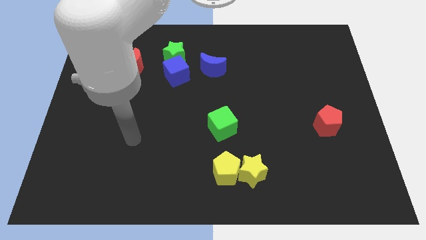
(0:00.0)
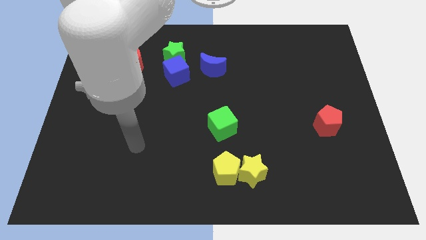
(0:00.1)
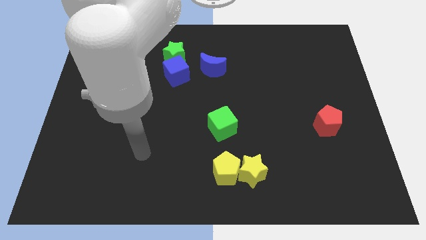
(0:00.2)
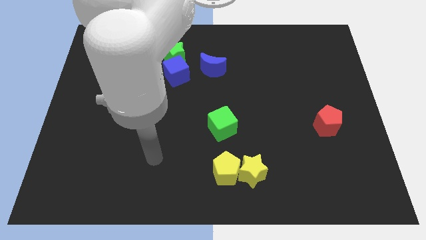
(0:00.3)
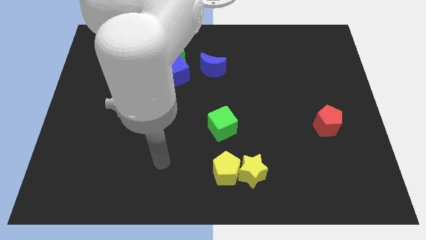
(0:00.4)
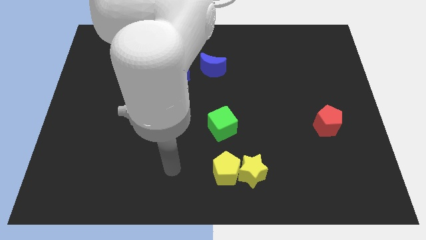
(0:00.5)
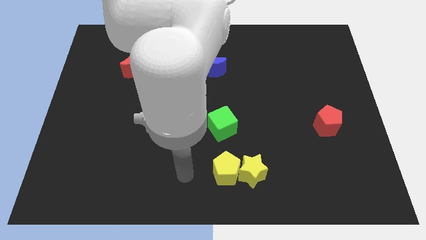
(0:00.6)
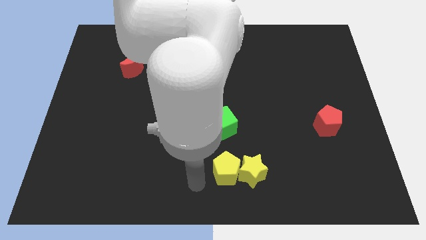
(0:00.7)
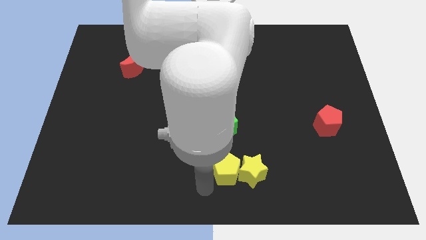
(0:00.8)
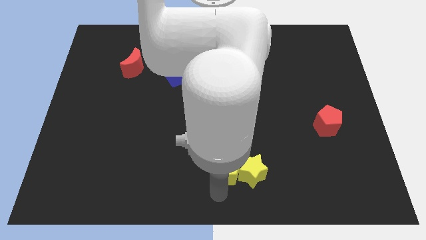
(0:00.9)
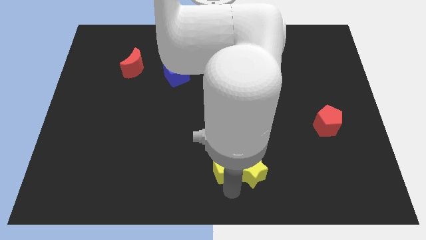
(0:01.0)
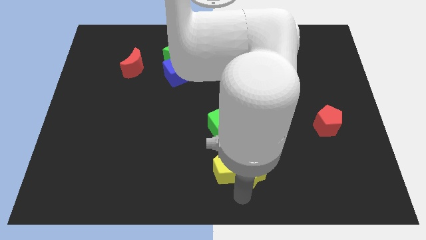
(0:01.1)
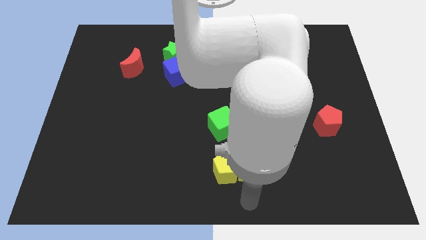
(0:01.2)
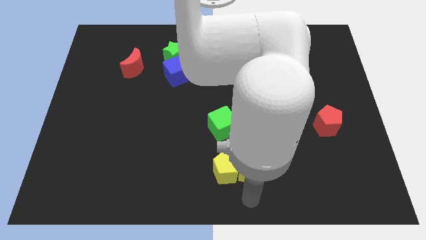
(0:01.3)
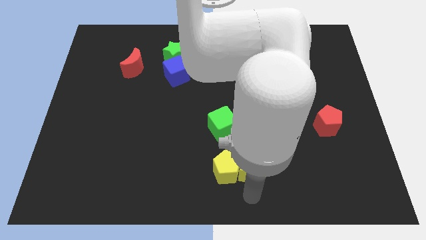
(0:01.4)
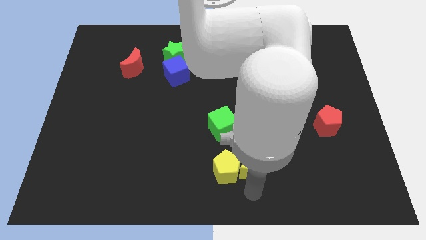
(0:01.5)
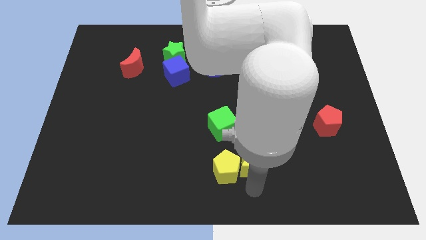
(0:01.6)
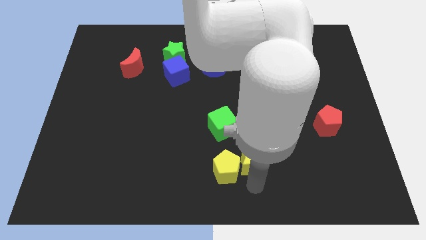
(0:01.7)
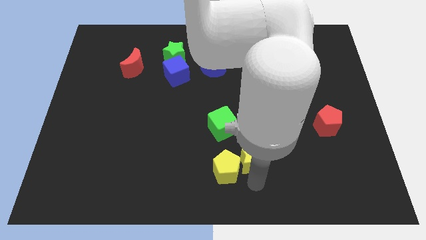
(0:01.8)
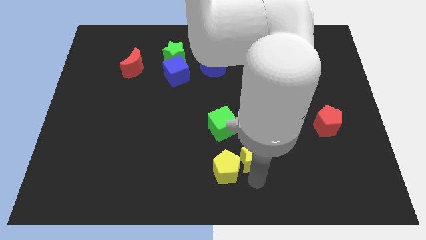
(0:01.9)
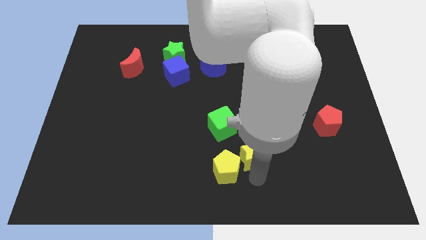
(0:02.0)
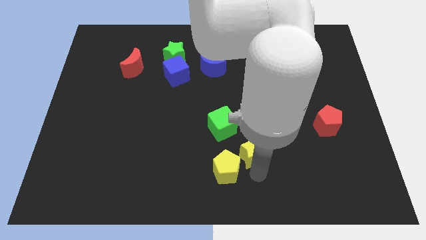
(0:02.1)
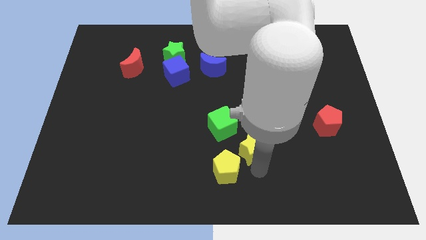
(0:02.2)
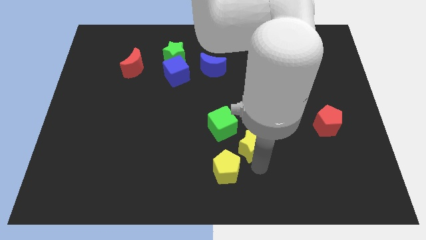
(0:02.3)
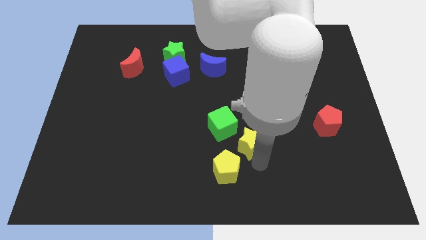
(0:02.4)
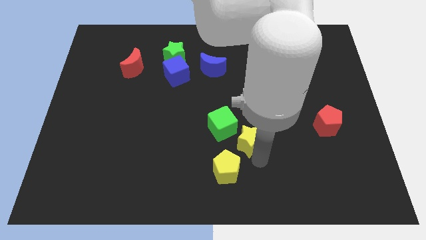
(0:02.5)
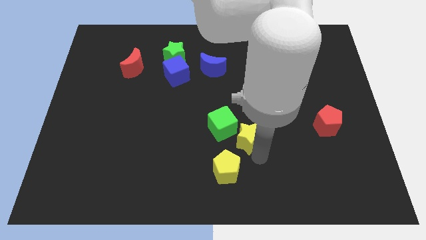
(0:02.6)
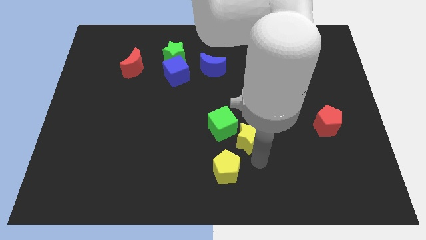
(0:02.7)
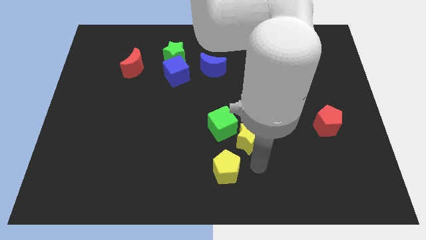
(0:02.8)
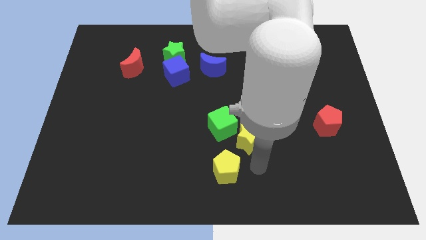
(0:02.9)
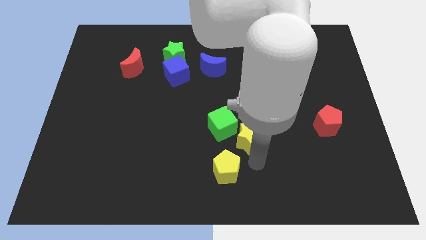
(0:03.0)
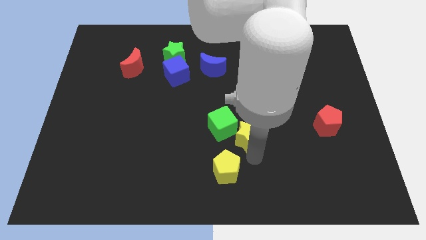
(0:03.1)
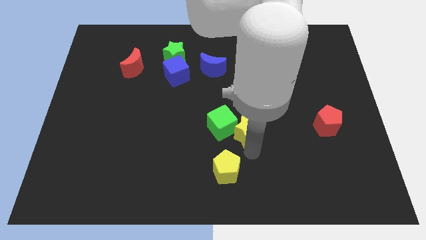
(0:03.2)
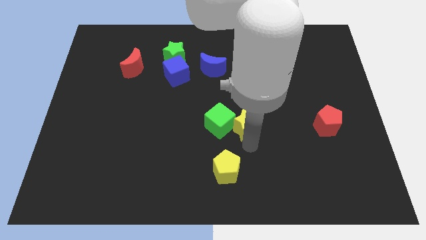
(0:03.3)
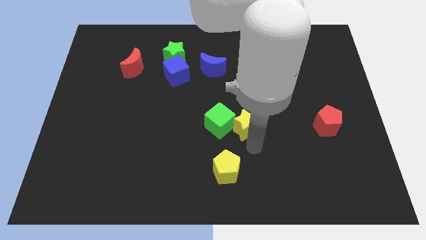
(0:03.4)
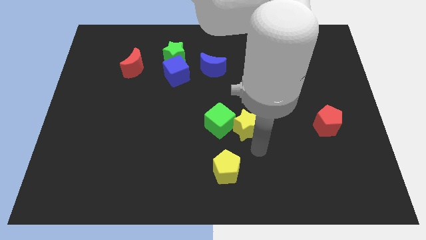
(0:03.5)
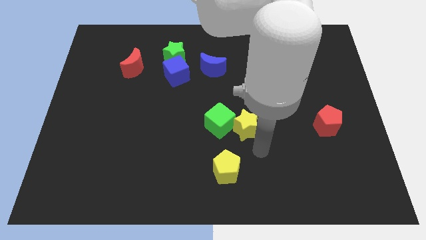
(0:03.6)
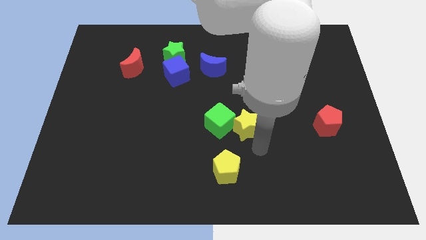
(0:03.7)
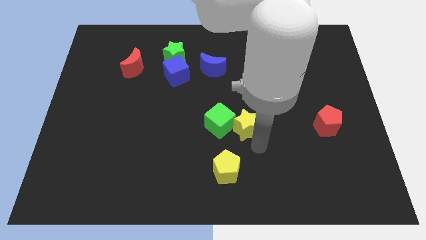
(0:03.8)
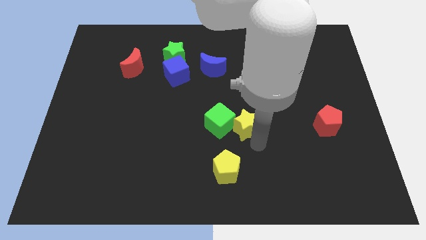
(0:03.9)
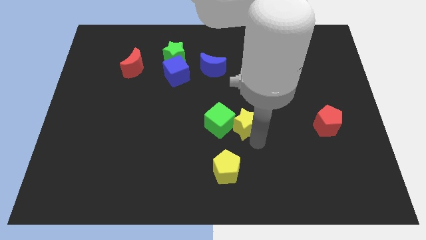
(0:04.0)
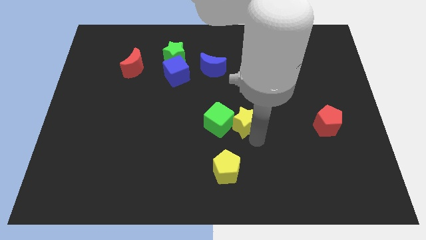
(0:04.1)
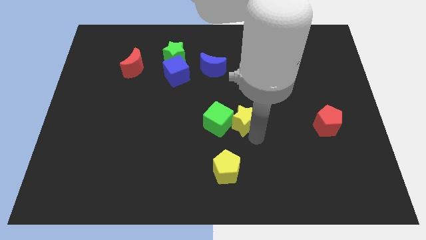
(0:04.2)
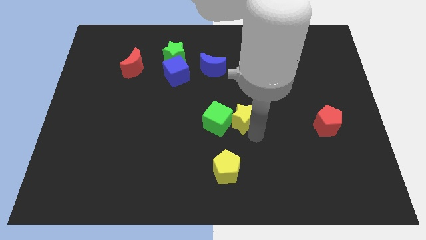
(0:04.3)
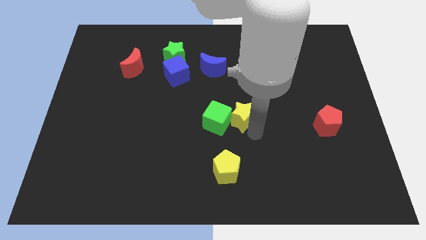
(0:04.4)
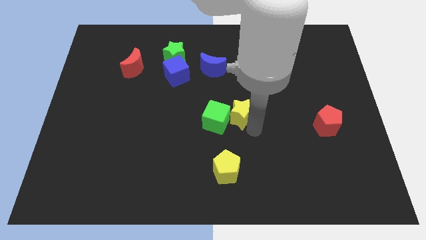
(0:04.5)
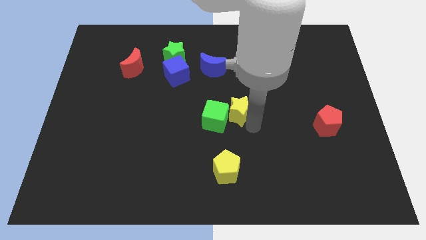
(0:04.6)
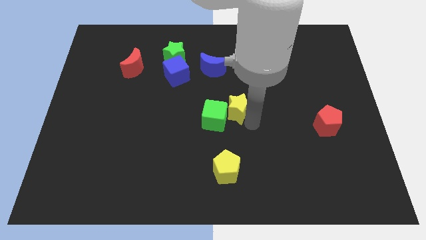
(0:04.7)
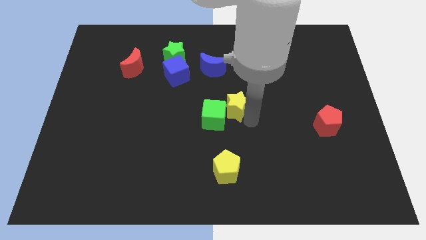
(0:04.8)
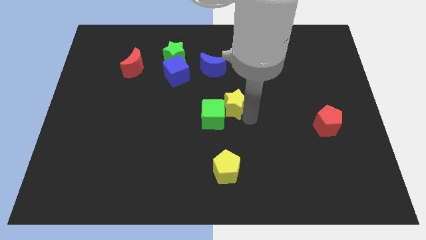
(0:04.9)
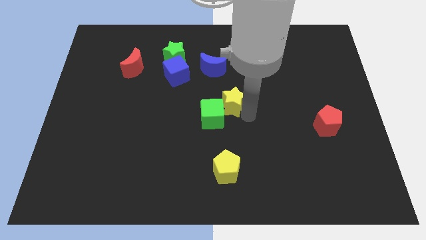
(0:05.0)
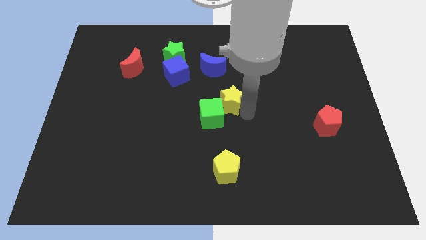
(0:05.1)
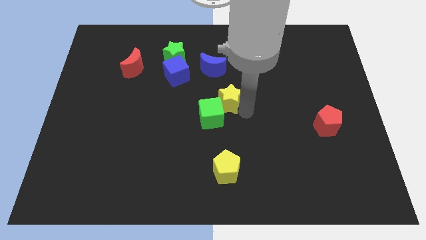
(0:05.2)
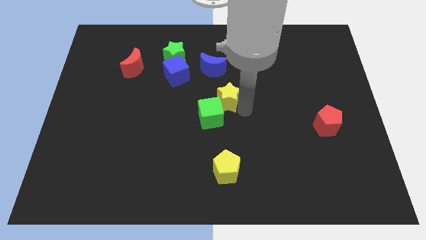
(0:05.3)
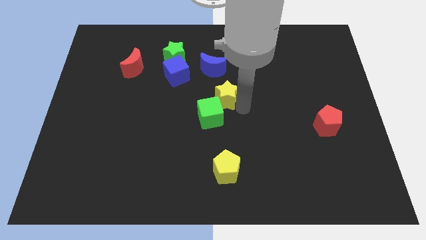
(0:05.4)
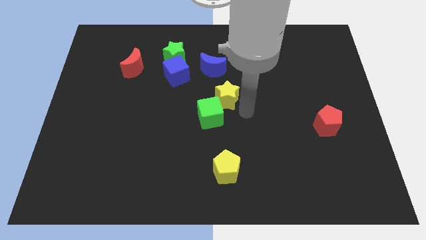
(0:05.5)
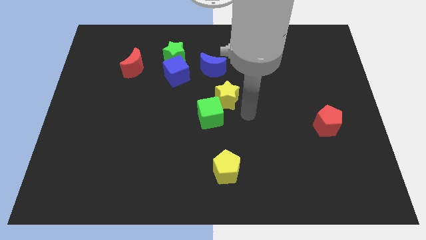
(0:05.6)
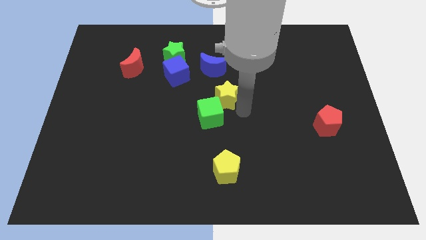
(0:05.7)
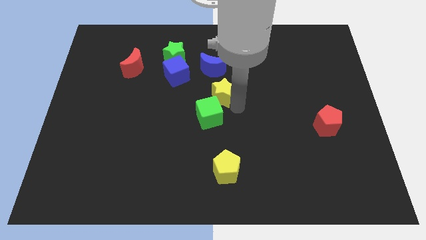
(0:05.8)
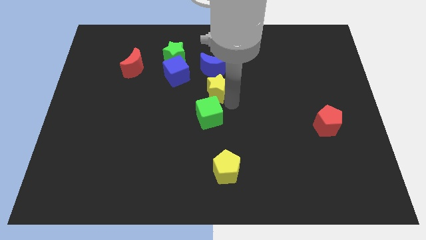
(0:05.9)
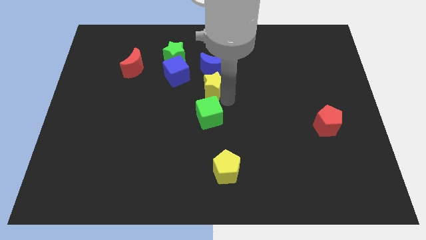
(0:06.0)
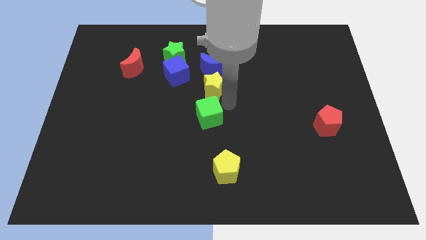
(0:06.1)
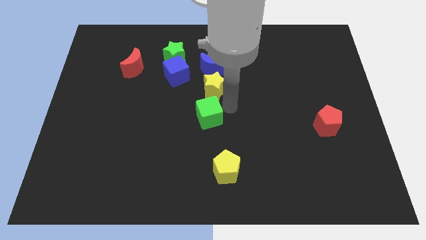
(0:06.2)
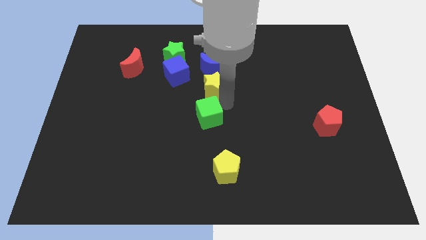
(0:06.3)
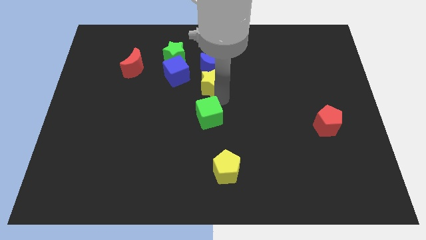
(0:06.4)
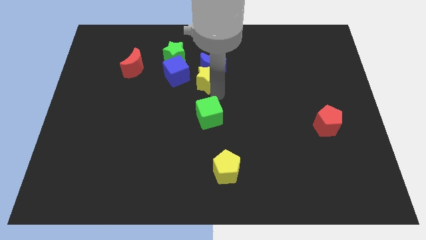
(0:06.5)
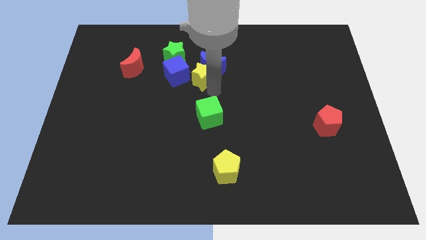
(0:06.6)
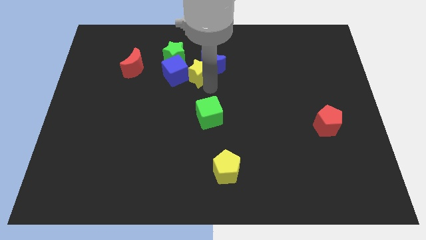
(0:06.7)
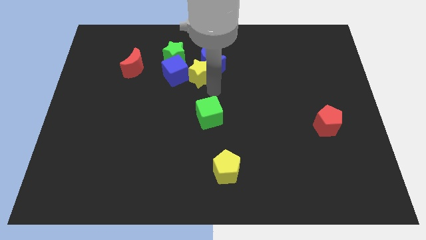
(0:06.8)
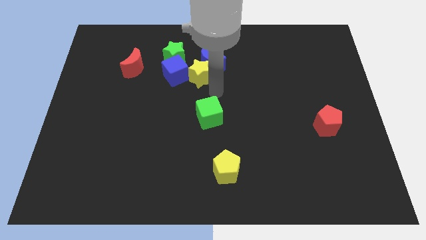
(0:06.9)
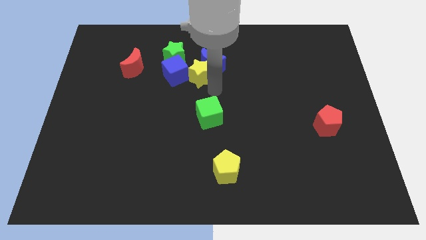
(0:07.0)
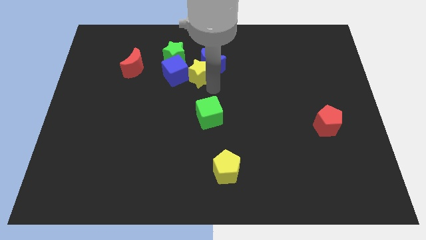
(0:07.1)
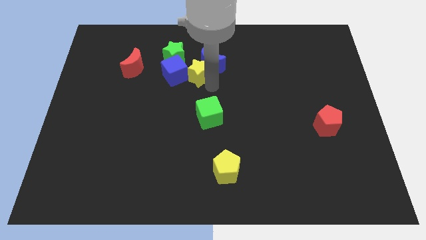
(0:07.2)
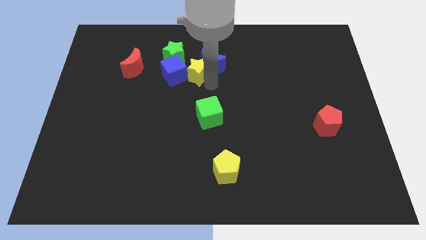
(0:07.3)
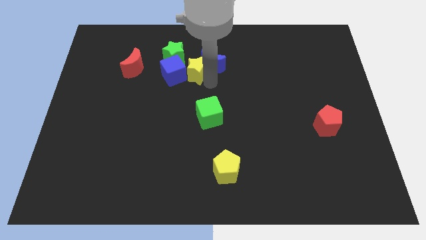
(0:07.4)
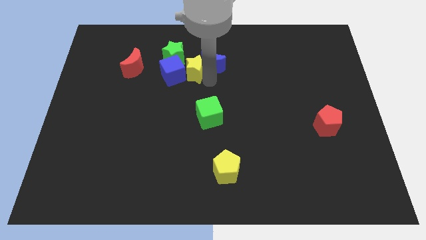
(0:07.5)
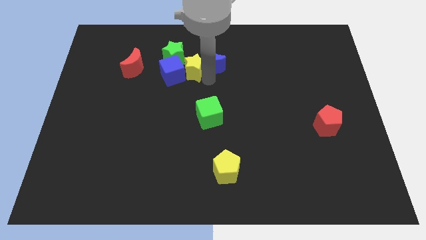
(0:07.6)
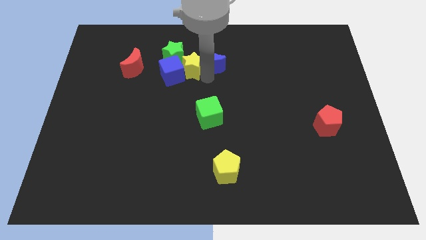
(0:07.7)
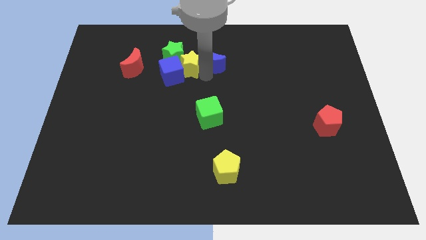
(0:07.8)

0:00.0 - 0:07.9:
move the yellow star to the green star
